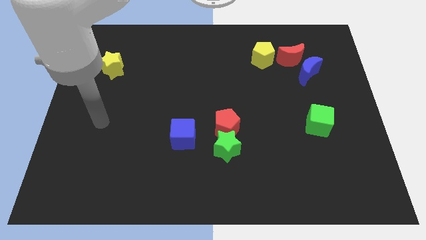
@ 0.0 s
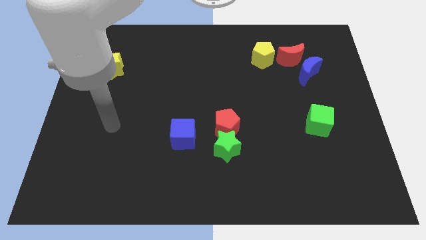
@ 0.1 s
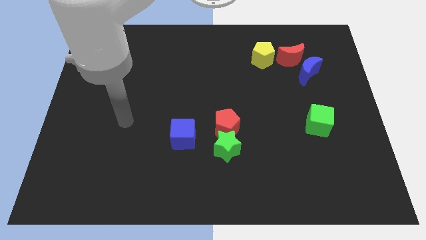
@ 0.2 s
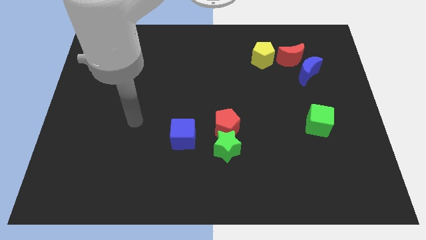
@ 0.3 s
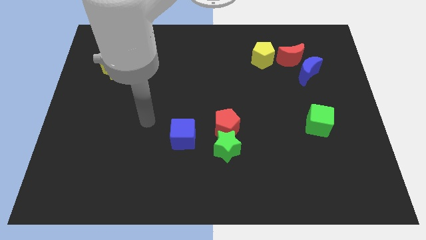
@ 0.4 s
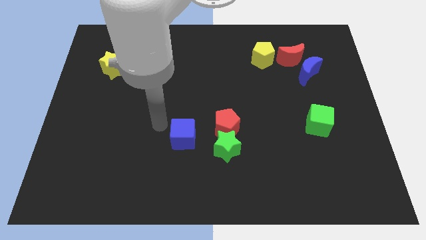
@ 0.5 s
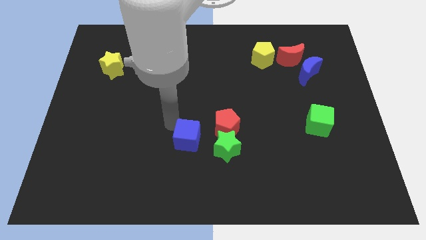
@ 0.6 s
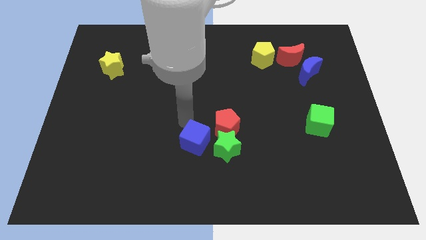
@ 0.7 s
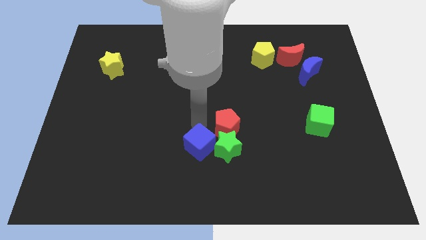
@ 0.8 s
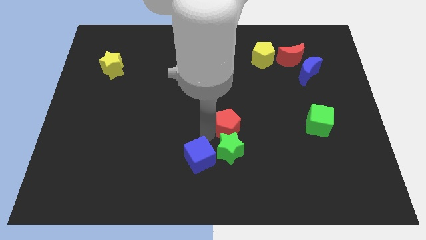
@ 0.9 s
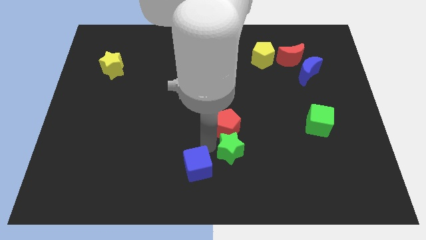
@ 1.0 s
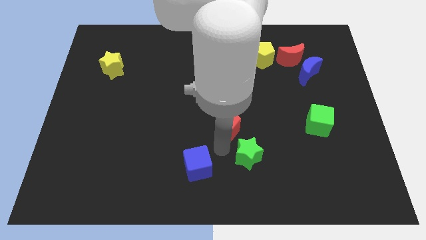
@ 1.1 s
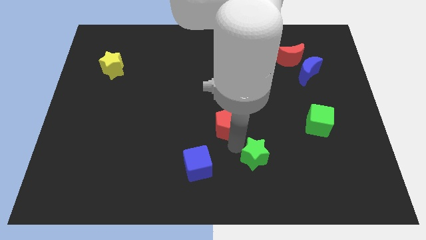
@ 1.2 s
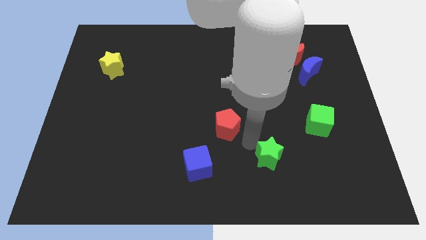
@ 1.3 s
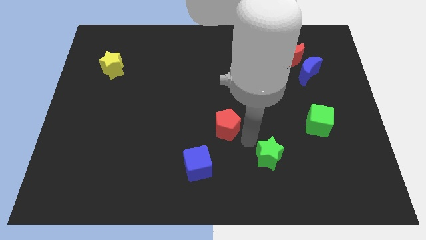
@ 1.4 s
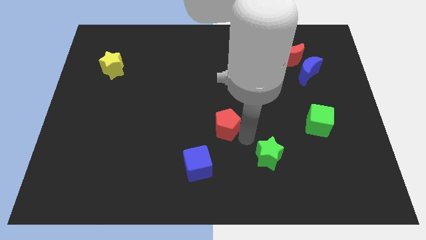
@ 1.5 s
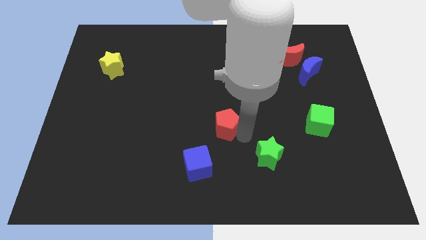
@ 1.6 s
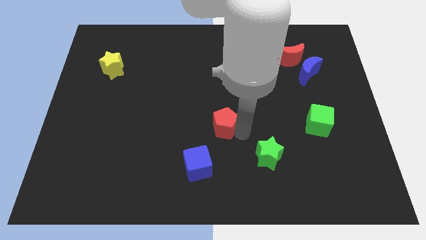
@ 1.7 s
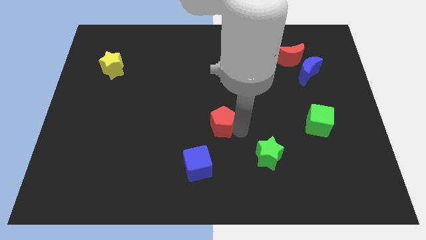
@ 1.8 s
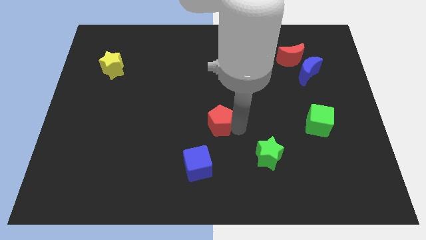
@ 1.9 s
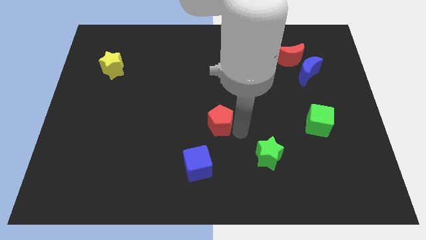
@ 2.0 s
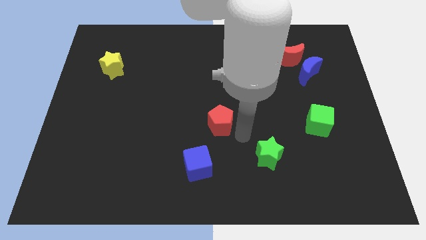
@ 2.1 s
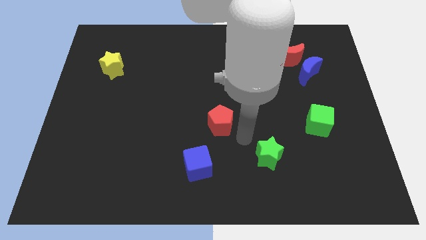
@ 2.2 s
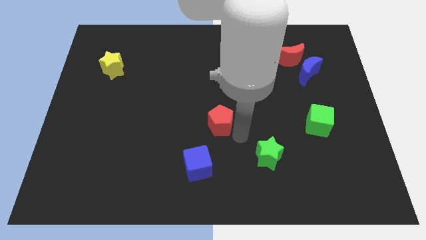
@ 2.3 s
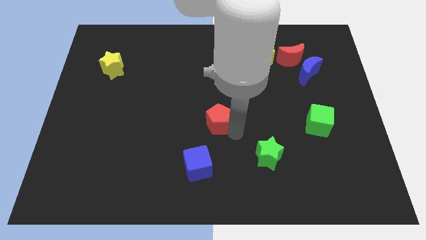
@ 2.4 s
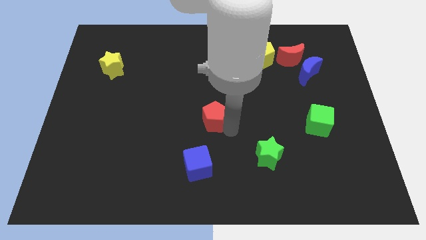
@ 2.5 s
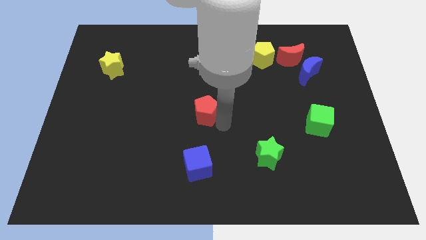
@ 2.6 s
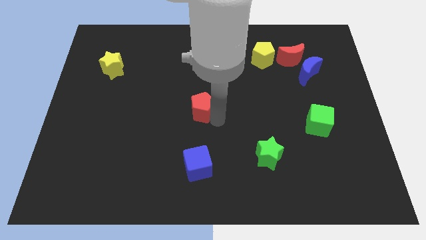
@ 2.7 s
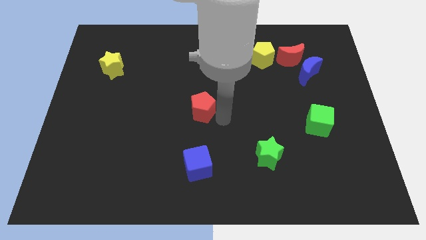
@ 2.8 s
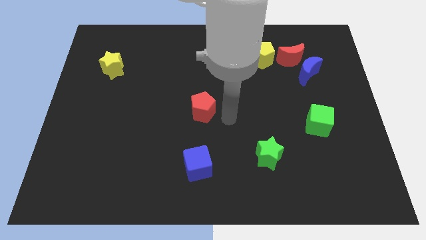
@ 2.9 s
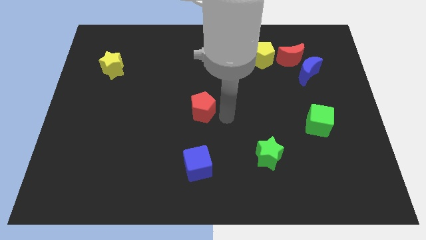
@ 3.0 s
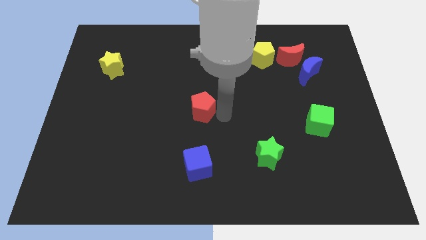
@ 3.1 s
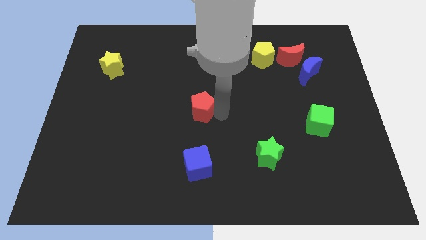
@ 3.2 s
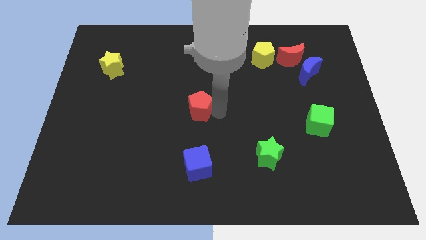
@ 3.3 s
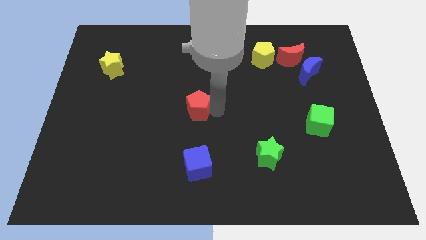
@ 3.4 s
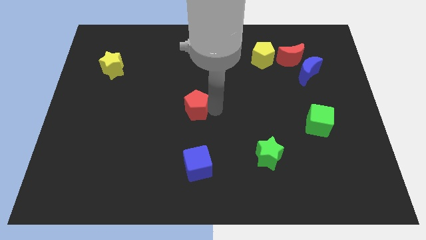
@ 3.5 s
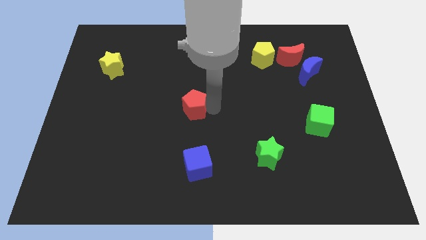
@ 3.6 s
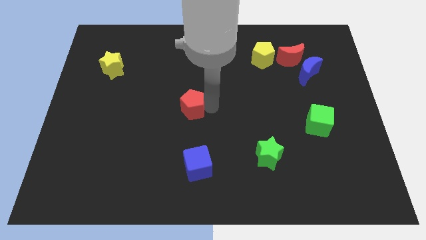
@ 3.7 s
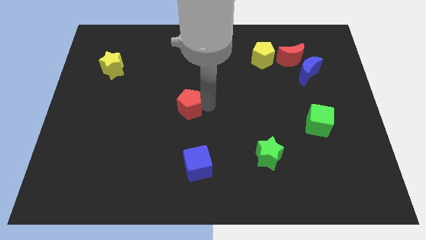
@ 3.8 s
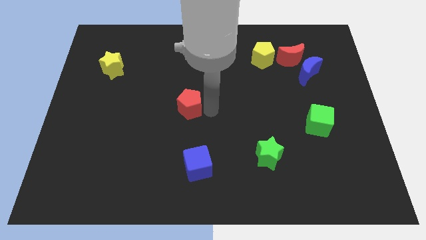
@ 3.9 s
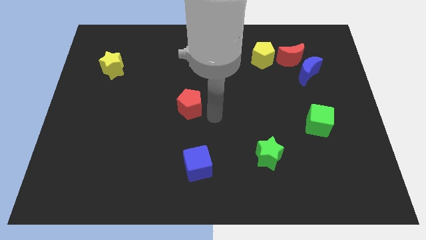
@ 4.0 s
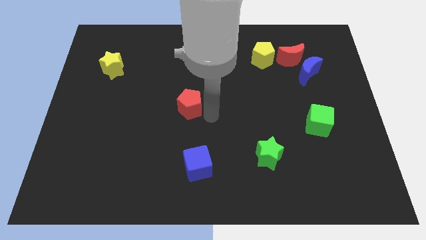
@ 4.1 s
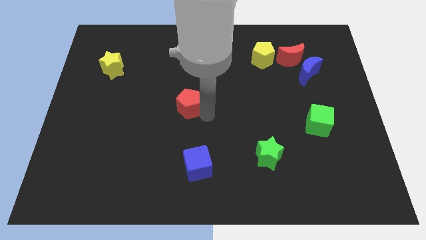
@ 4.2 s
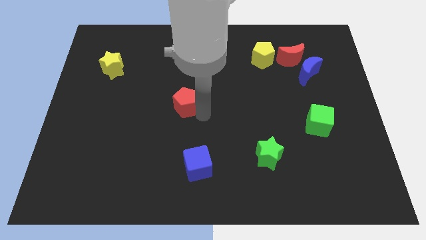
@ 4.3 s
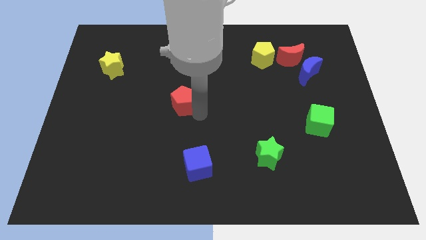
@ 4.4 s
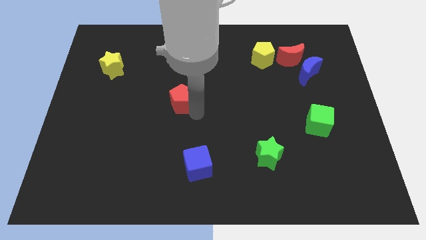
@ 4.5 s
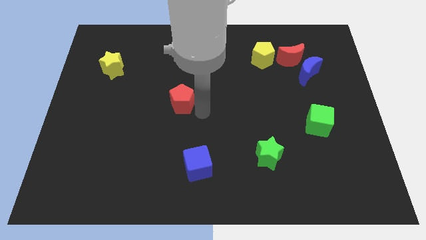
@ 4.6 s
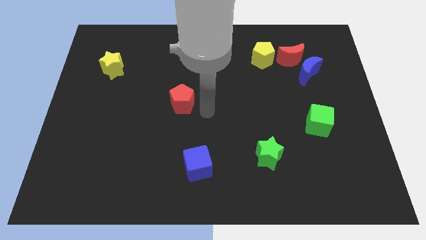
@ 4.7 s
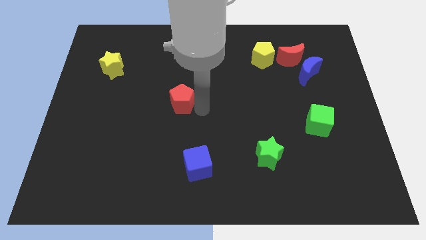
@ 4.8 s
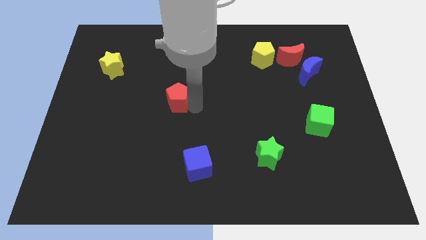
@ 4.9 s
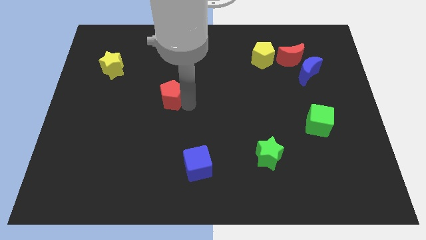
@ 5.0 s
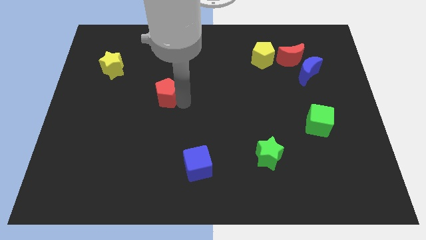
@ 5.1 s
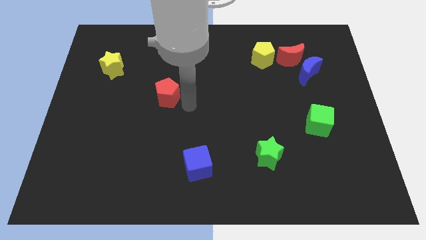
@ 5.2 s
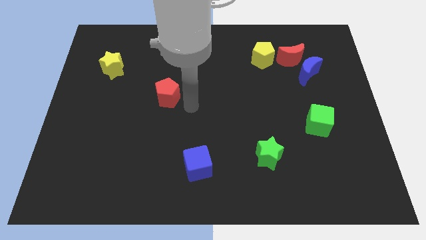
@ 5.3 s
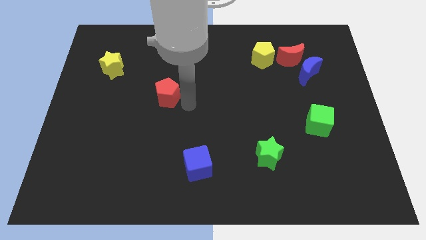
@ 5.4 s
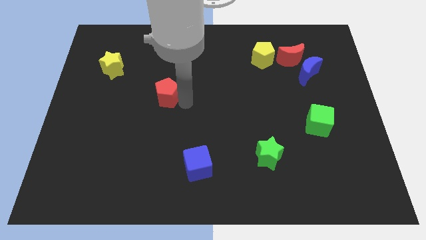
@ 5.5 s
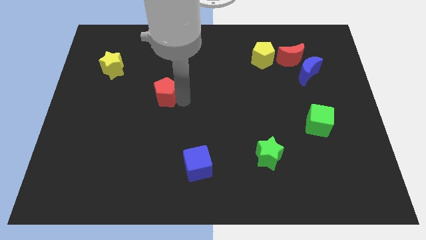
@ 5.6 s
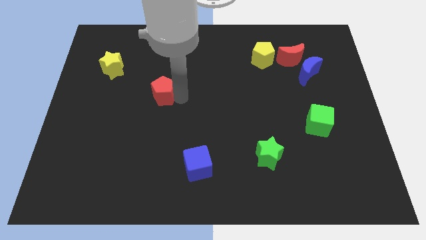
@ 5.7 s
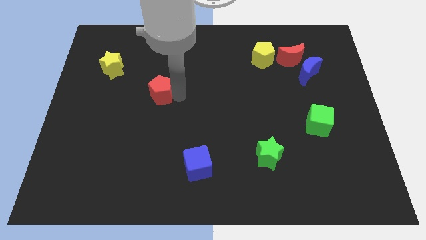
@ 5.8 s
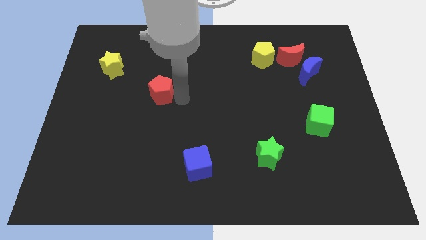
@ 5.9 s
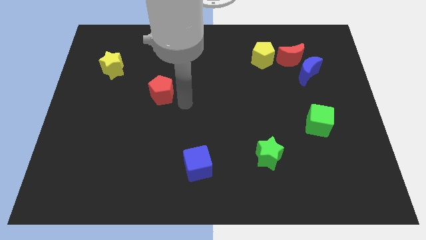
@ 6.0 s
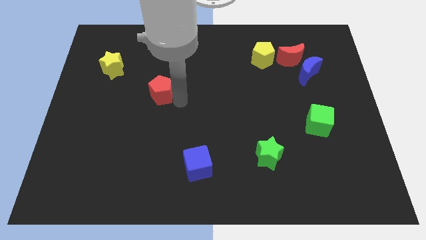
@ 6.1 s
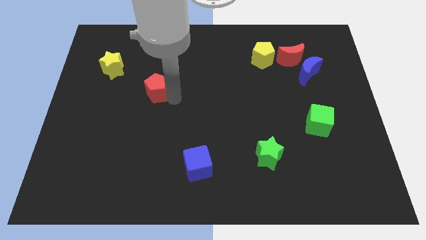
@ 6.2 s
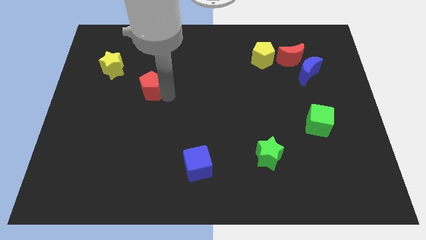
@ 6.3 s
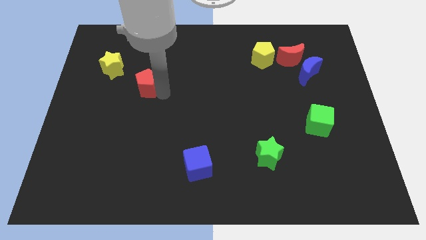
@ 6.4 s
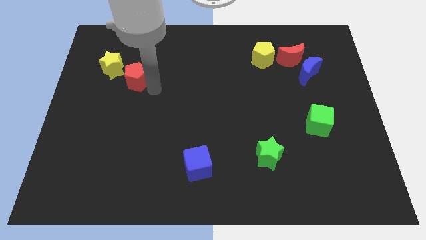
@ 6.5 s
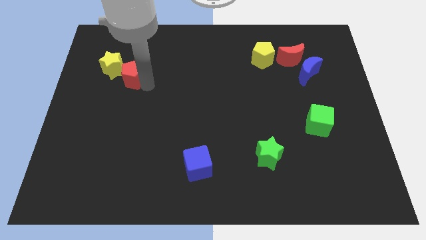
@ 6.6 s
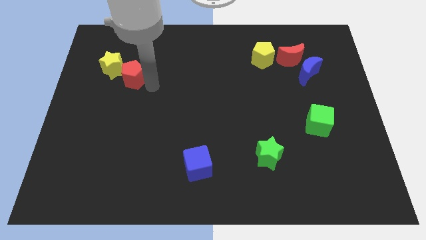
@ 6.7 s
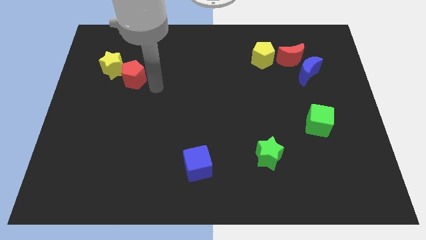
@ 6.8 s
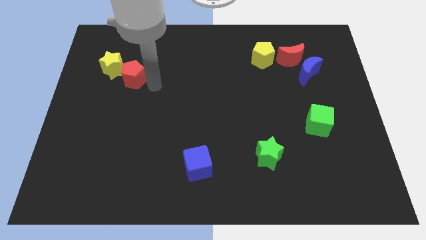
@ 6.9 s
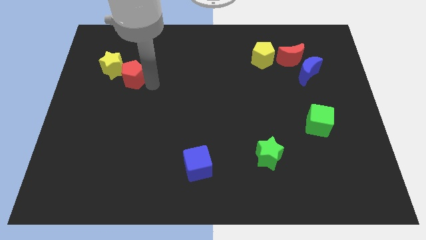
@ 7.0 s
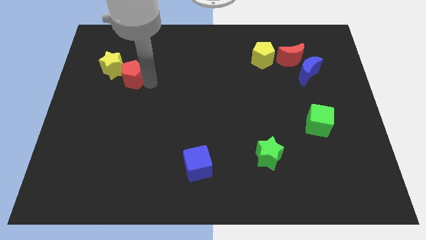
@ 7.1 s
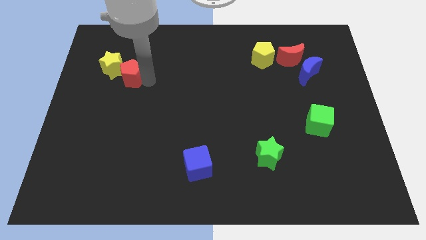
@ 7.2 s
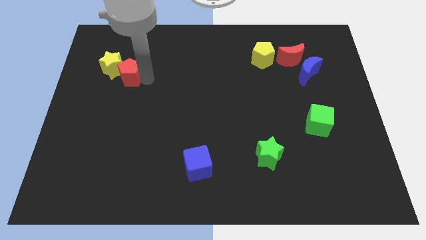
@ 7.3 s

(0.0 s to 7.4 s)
move the red pentagon close to the yellow star

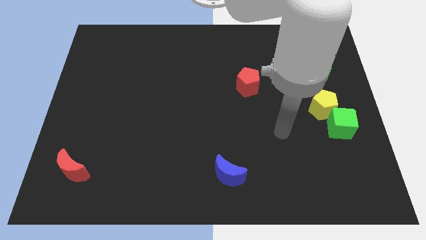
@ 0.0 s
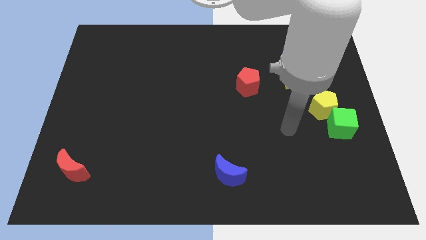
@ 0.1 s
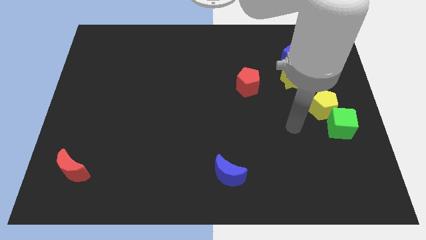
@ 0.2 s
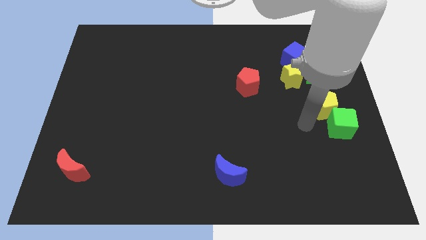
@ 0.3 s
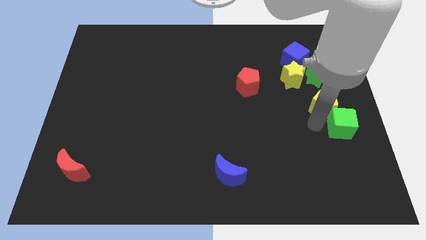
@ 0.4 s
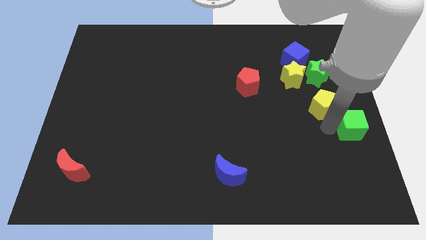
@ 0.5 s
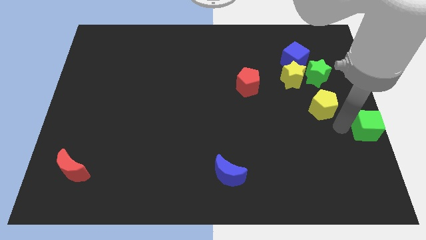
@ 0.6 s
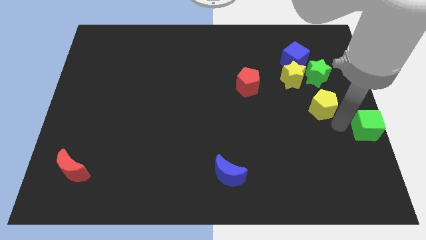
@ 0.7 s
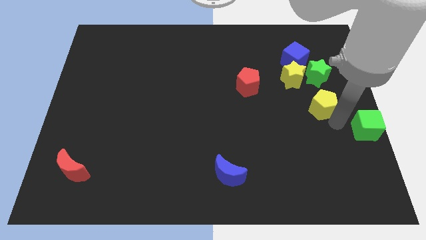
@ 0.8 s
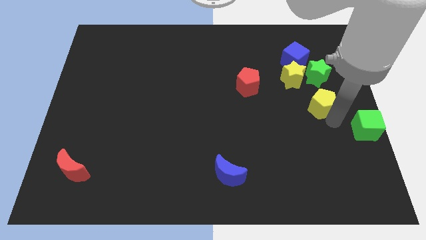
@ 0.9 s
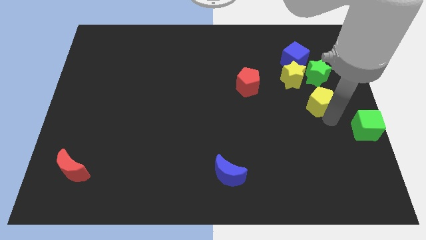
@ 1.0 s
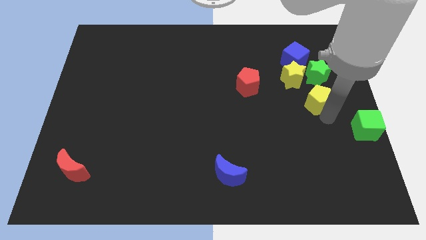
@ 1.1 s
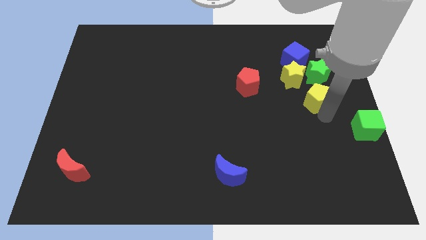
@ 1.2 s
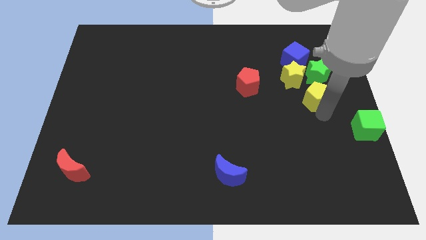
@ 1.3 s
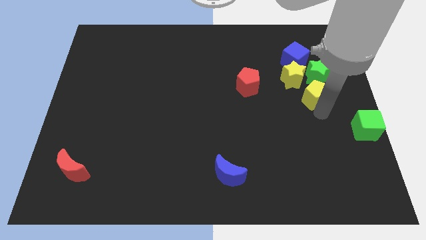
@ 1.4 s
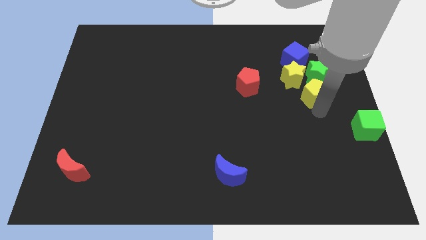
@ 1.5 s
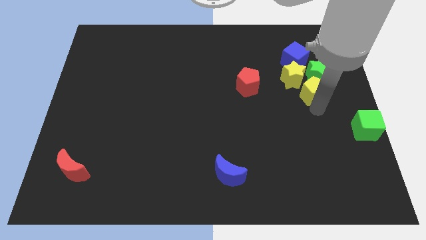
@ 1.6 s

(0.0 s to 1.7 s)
move the yellow pentagon to the yellow star
